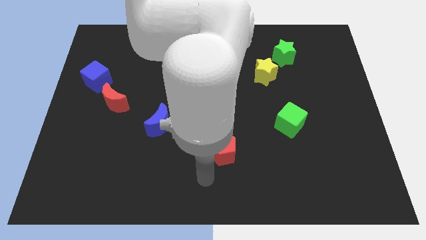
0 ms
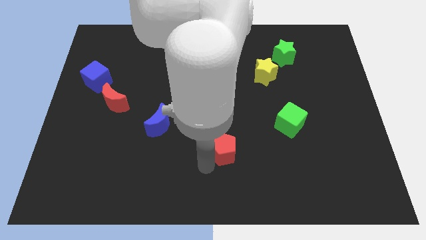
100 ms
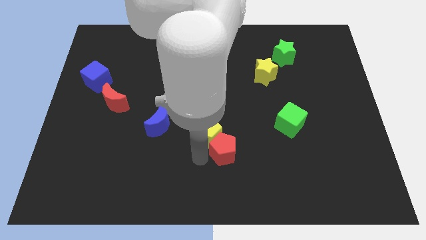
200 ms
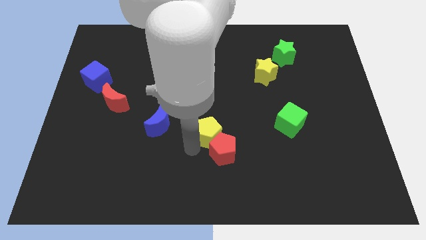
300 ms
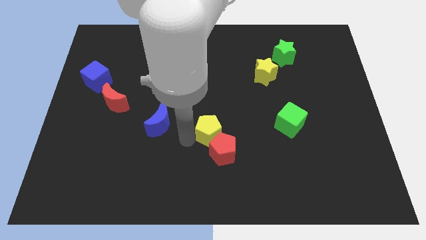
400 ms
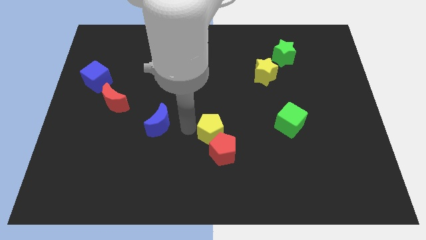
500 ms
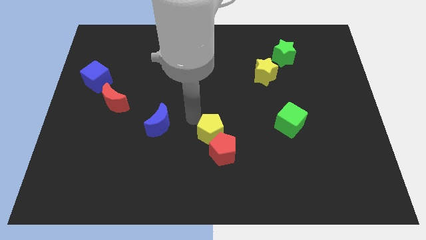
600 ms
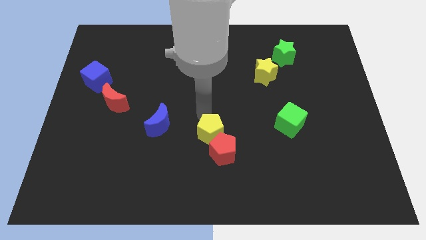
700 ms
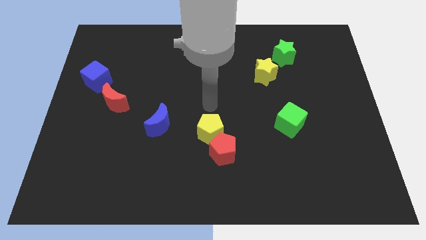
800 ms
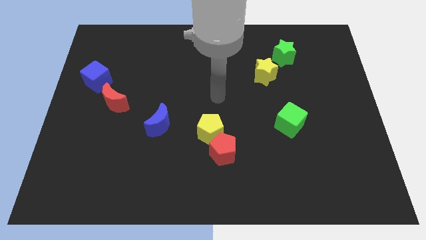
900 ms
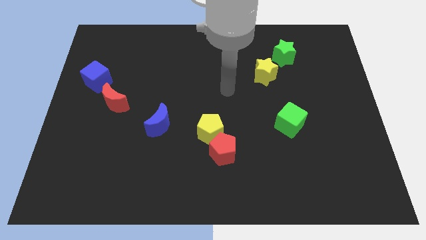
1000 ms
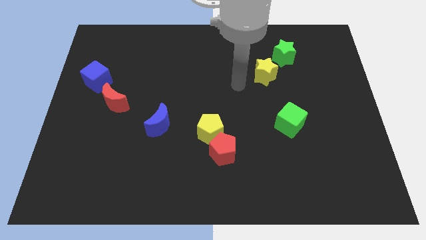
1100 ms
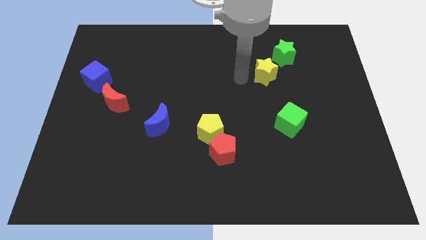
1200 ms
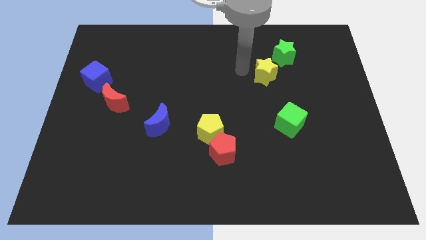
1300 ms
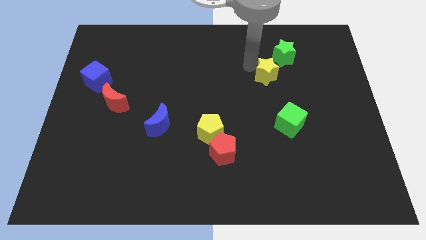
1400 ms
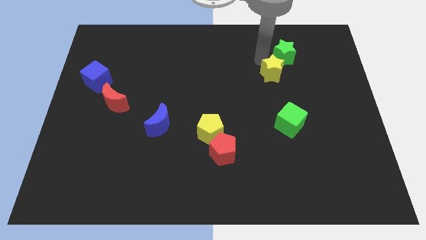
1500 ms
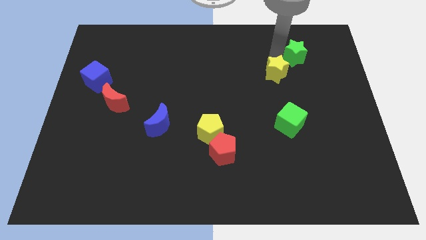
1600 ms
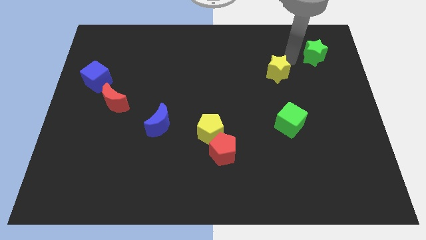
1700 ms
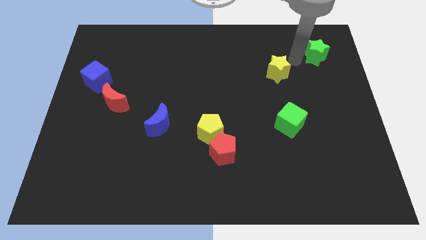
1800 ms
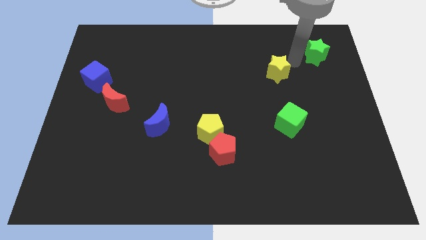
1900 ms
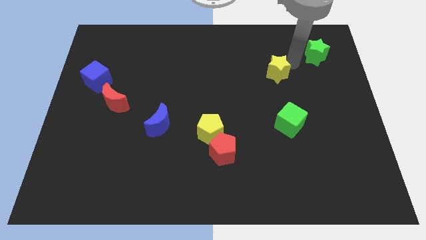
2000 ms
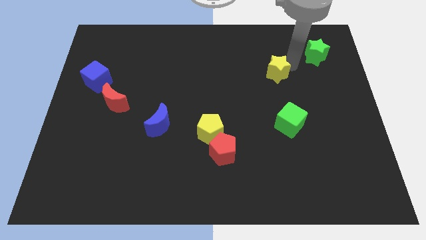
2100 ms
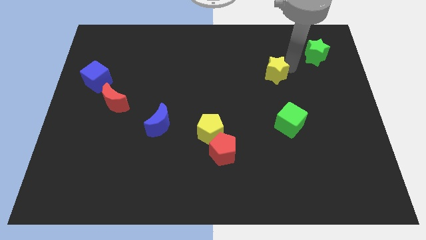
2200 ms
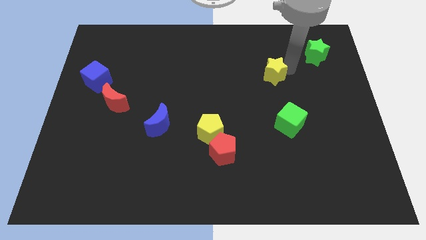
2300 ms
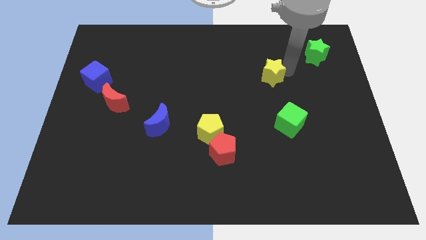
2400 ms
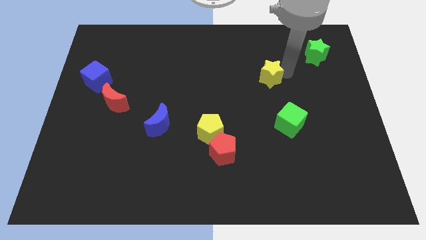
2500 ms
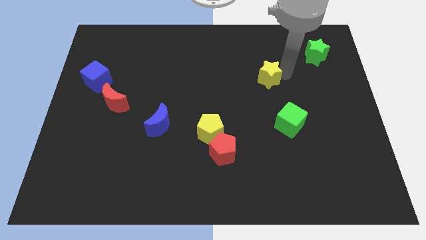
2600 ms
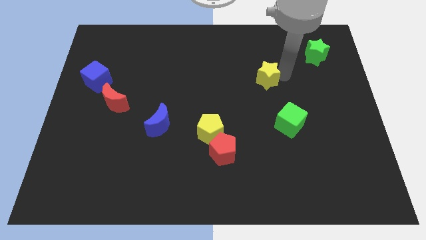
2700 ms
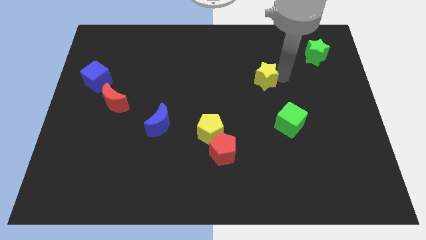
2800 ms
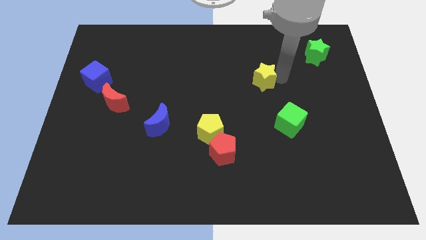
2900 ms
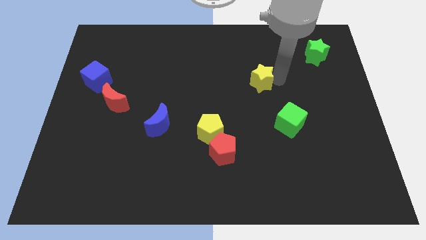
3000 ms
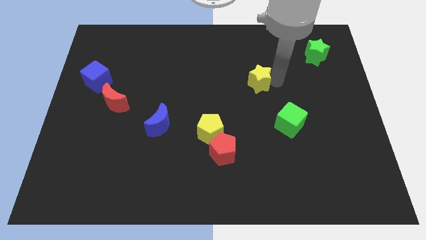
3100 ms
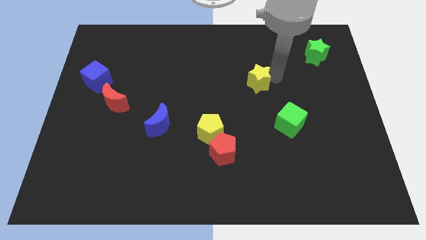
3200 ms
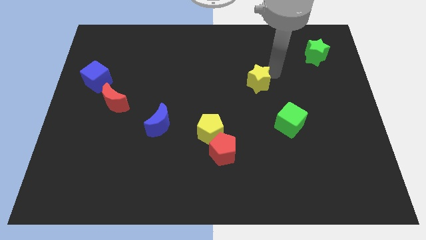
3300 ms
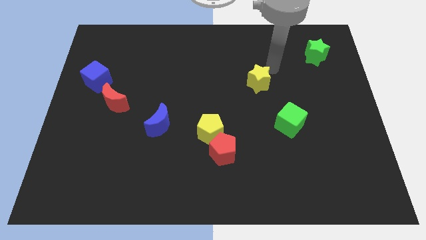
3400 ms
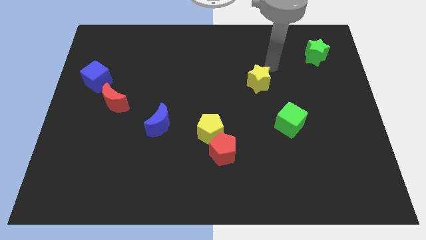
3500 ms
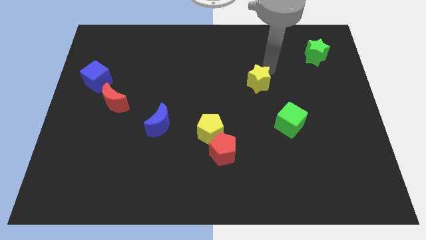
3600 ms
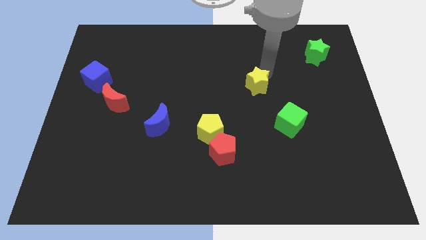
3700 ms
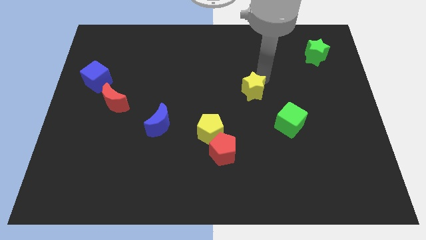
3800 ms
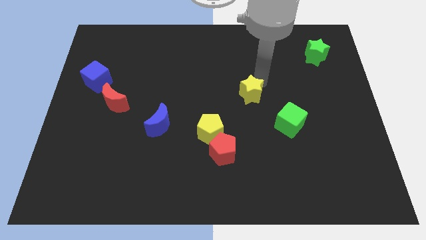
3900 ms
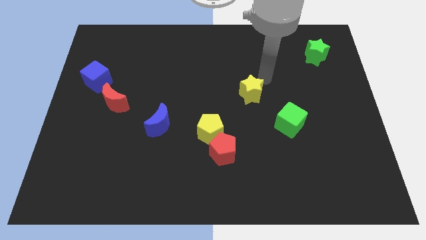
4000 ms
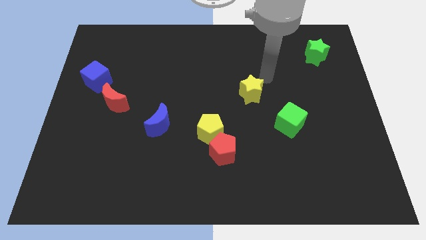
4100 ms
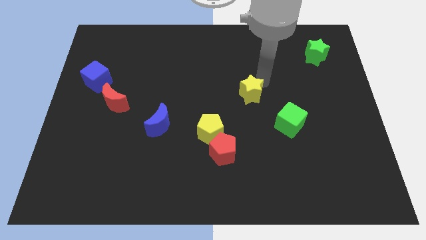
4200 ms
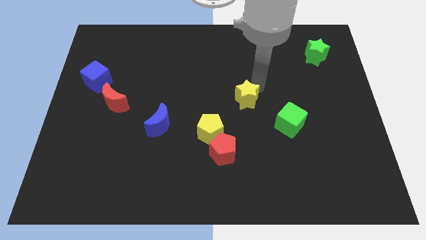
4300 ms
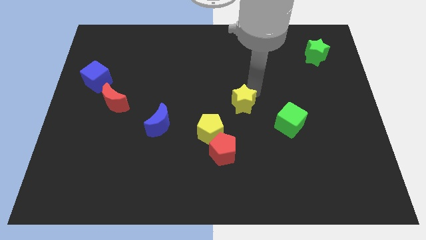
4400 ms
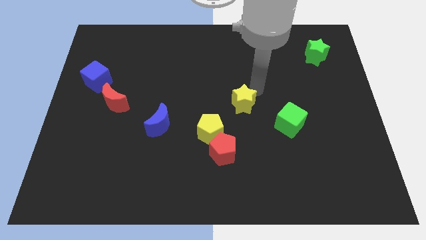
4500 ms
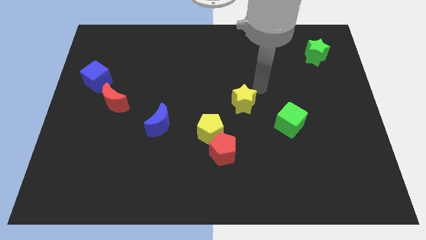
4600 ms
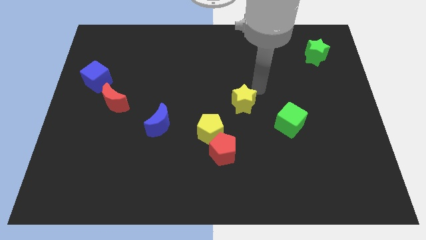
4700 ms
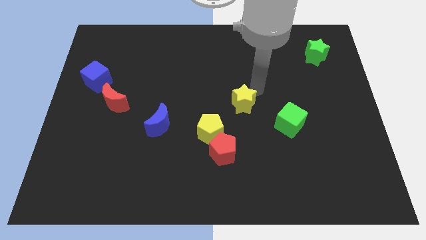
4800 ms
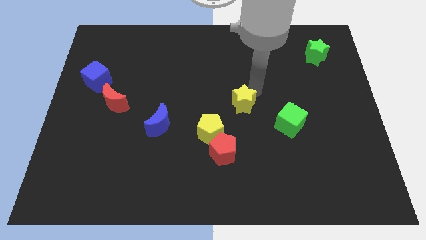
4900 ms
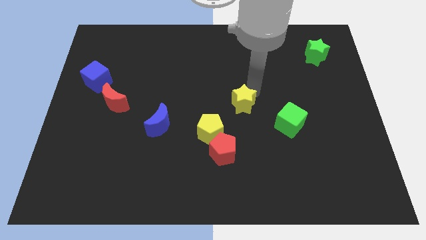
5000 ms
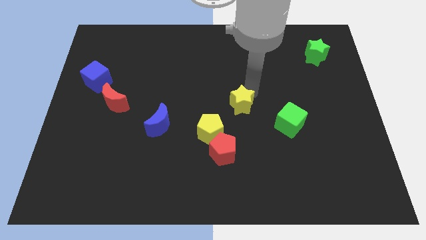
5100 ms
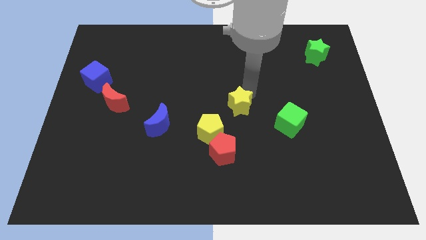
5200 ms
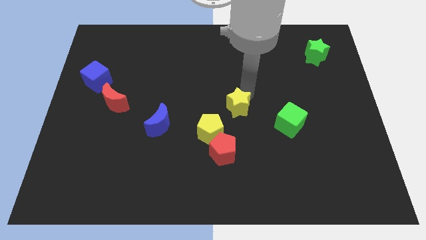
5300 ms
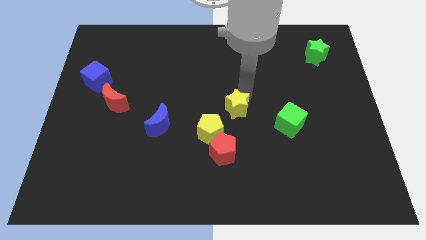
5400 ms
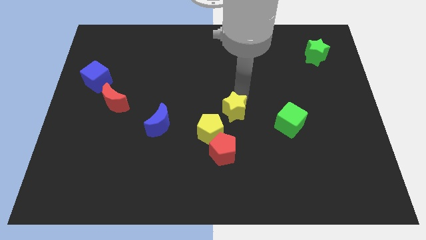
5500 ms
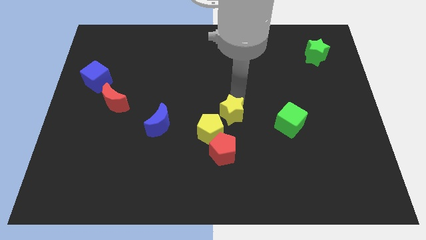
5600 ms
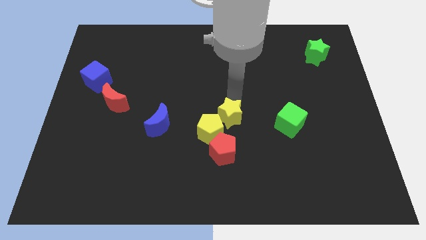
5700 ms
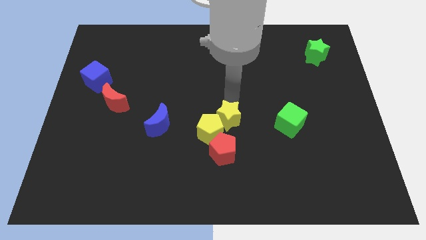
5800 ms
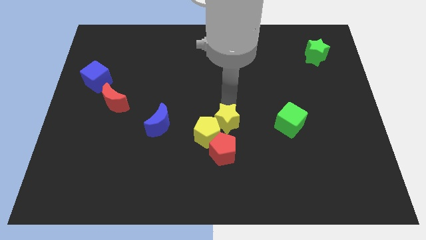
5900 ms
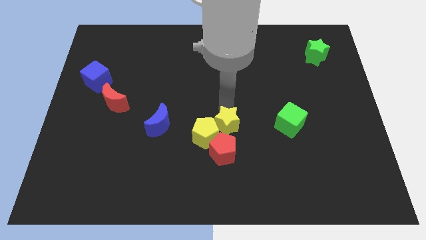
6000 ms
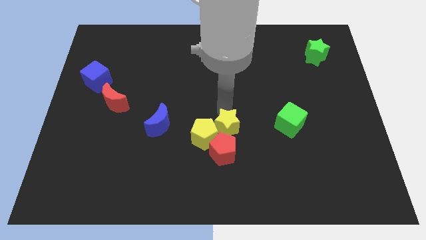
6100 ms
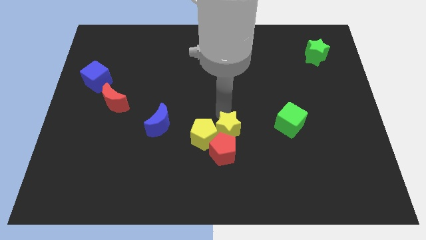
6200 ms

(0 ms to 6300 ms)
push the yellow star next to the red pentagon
